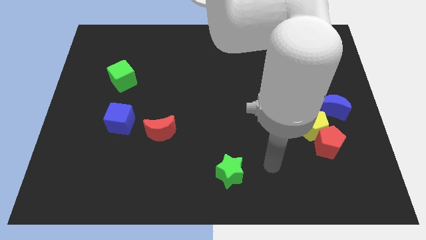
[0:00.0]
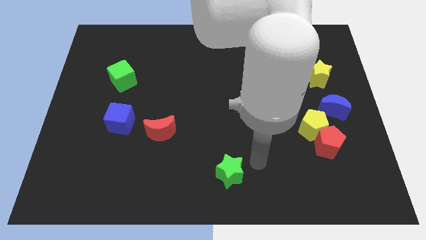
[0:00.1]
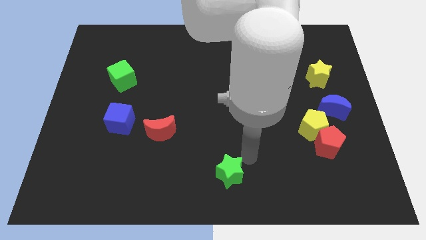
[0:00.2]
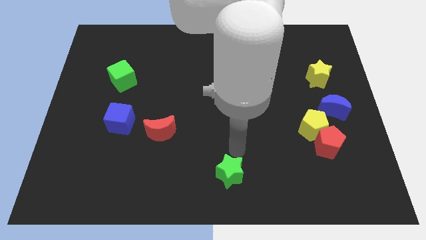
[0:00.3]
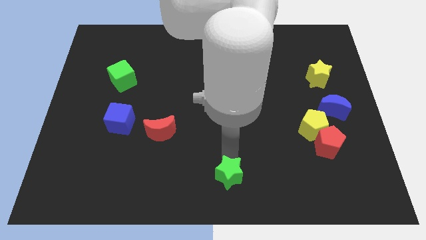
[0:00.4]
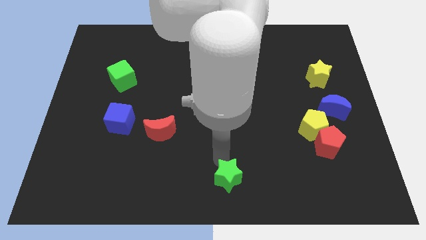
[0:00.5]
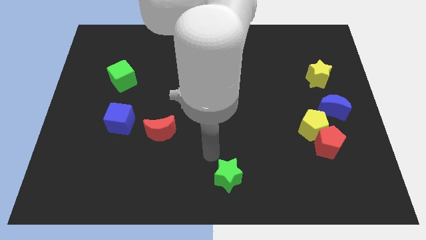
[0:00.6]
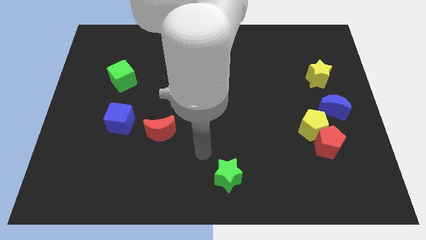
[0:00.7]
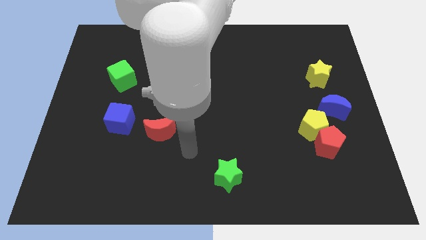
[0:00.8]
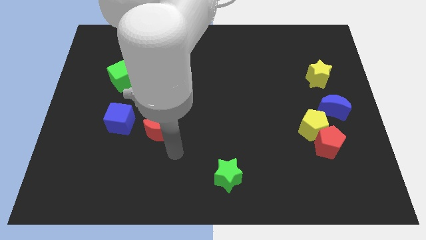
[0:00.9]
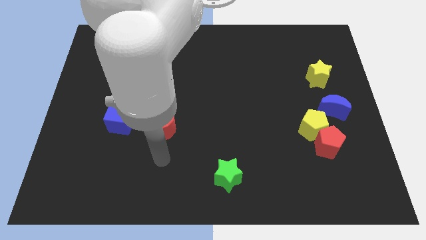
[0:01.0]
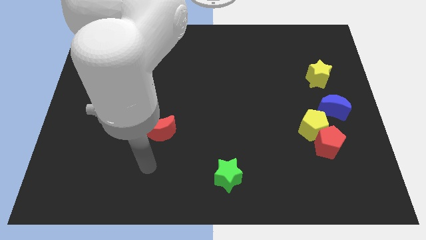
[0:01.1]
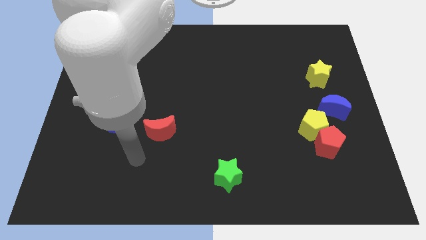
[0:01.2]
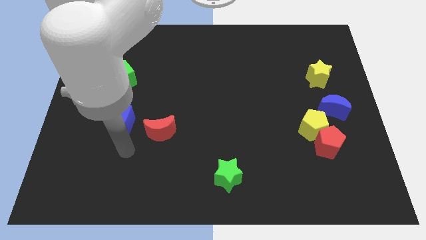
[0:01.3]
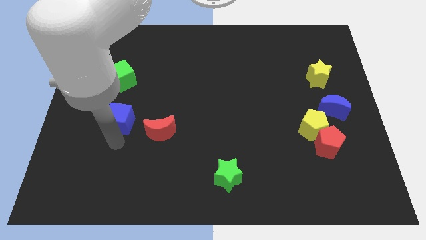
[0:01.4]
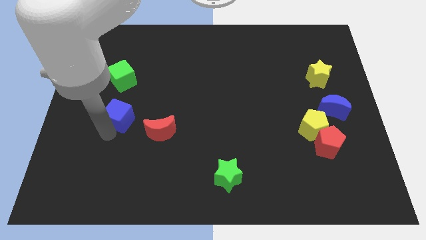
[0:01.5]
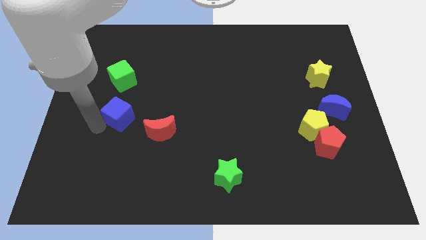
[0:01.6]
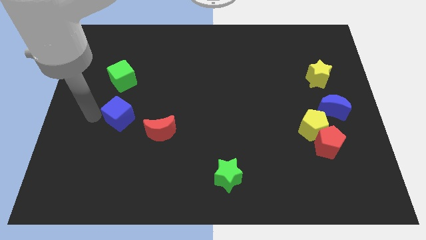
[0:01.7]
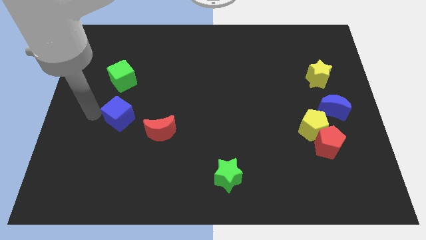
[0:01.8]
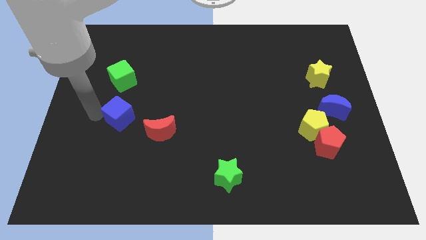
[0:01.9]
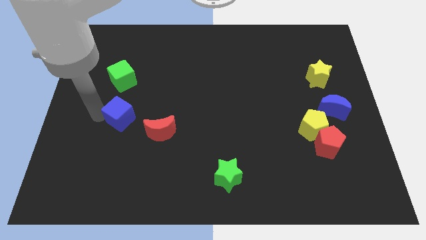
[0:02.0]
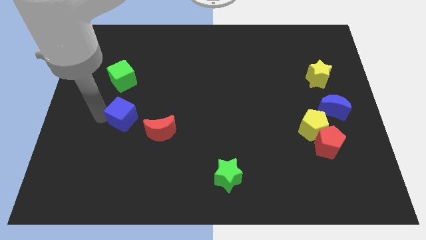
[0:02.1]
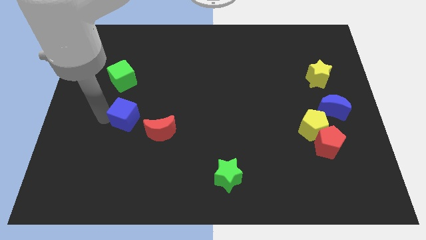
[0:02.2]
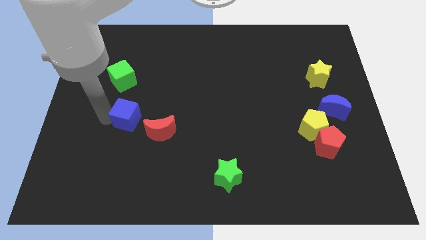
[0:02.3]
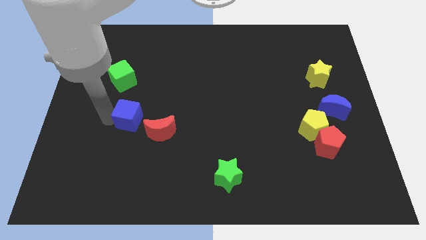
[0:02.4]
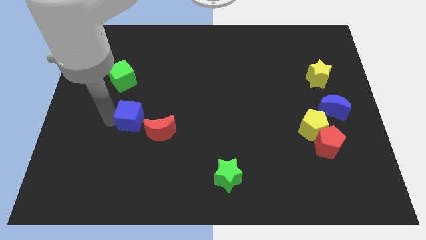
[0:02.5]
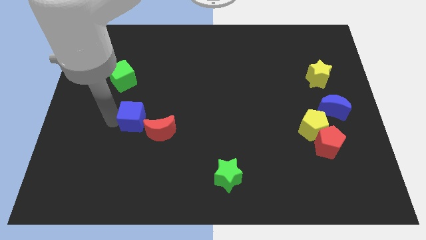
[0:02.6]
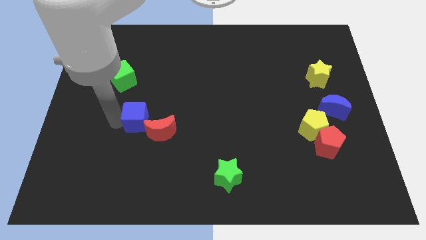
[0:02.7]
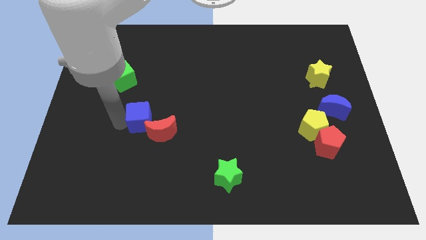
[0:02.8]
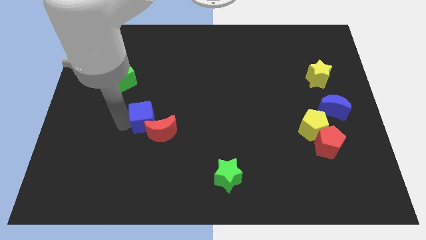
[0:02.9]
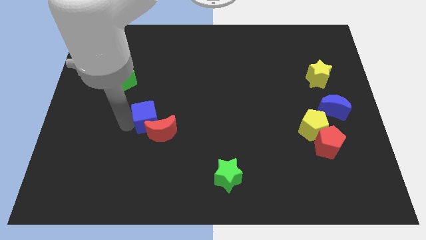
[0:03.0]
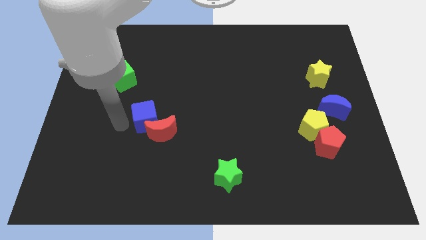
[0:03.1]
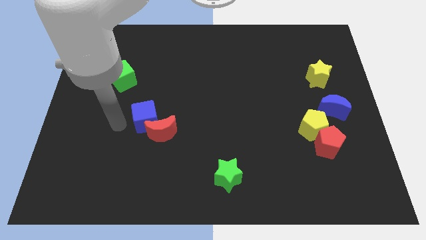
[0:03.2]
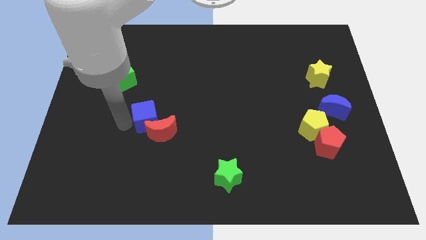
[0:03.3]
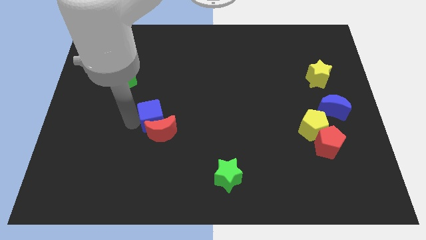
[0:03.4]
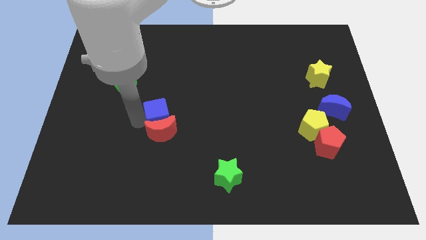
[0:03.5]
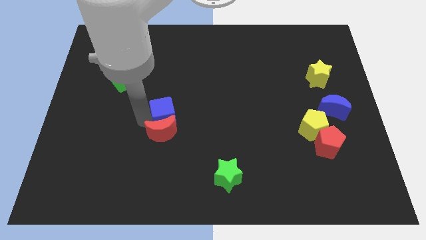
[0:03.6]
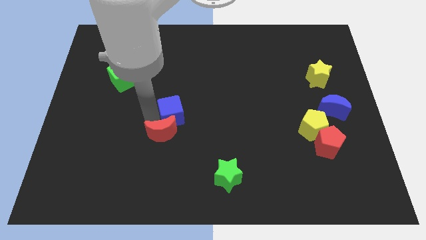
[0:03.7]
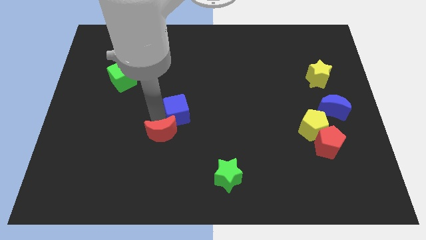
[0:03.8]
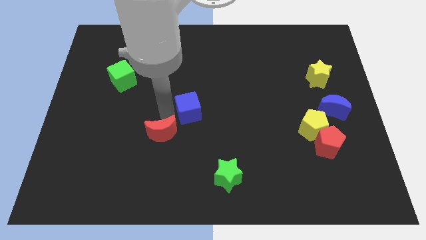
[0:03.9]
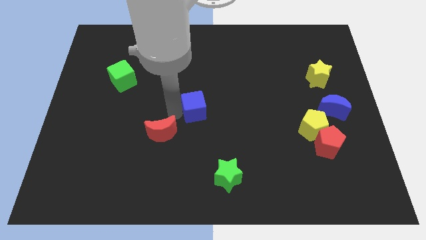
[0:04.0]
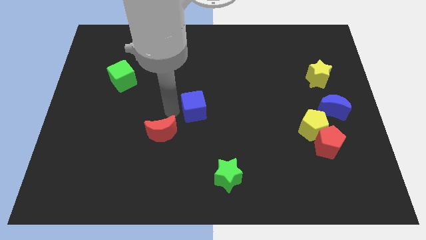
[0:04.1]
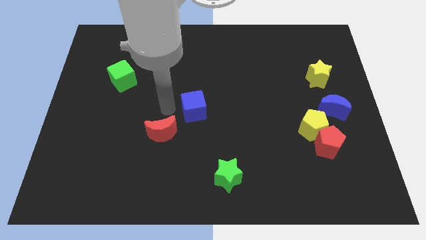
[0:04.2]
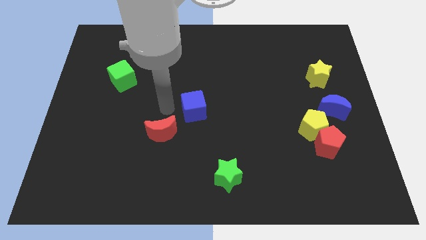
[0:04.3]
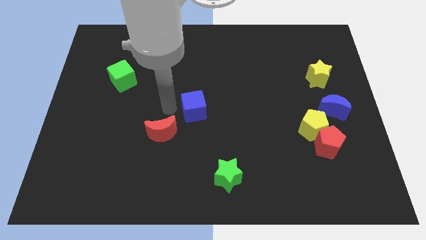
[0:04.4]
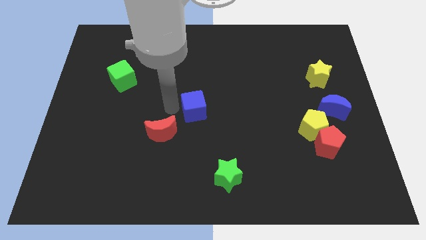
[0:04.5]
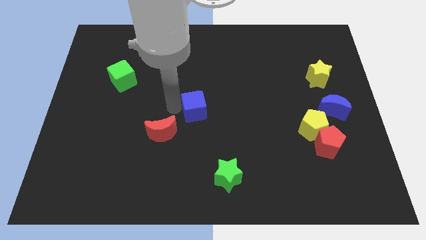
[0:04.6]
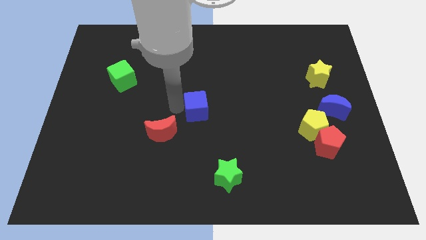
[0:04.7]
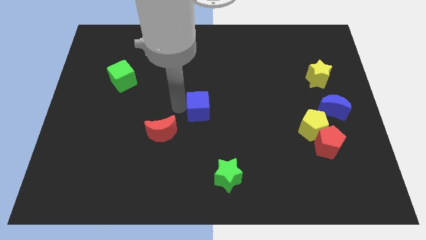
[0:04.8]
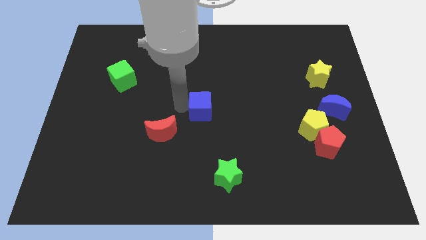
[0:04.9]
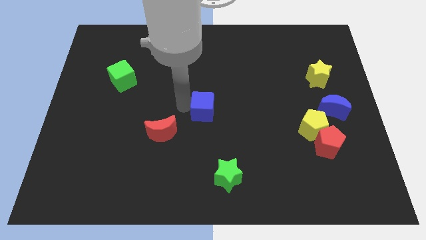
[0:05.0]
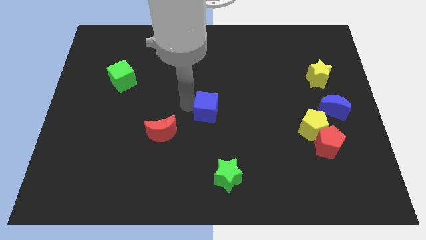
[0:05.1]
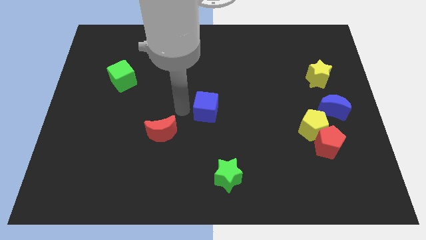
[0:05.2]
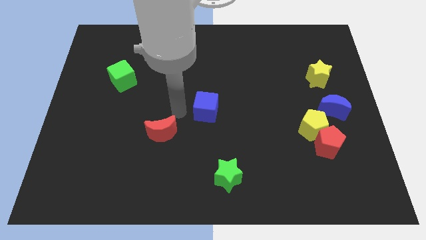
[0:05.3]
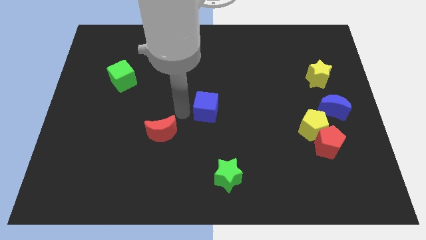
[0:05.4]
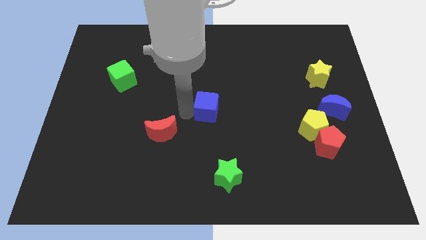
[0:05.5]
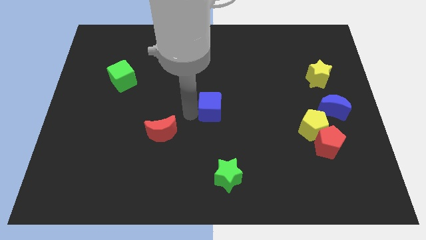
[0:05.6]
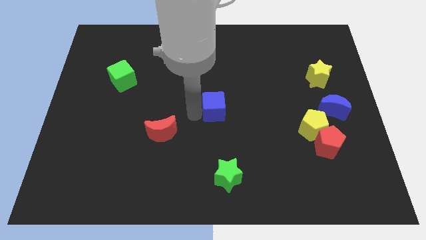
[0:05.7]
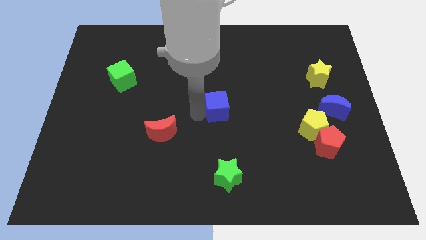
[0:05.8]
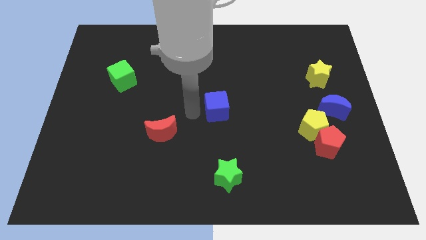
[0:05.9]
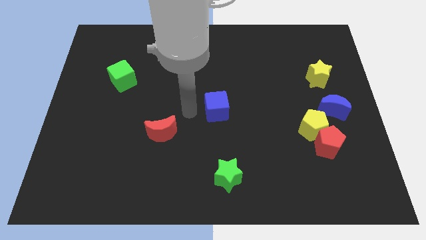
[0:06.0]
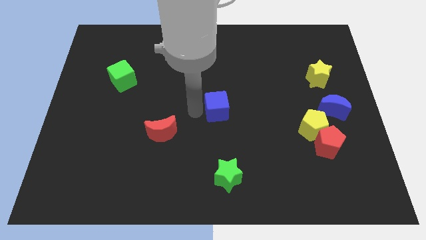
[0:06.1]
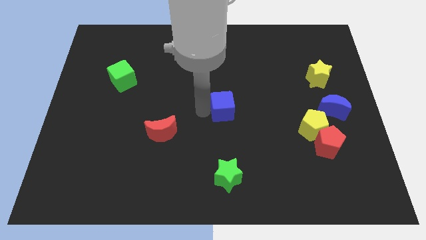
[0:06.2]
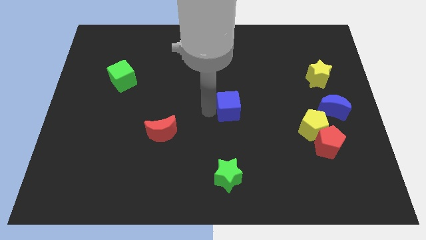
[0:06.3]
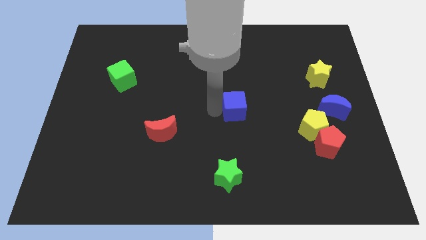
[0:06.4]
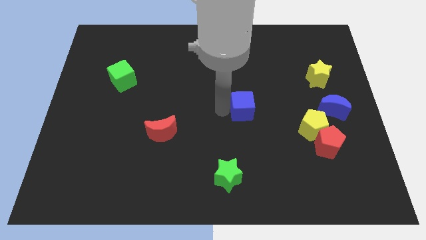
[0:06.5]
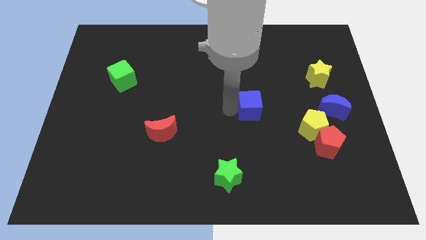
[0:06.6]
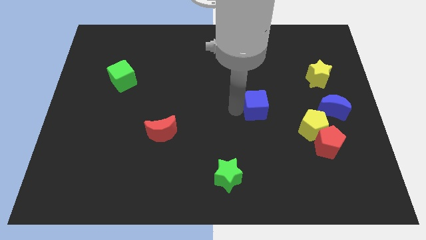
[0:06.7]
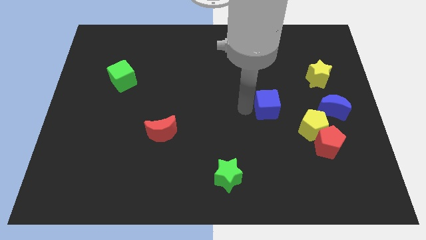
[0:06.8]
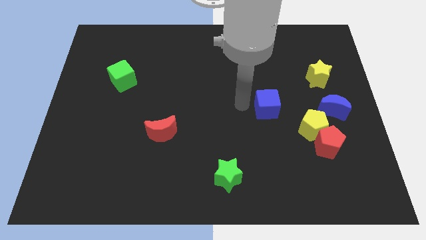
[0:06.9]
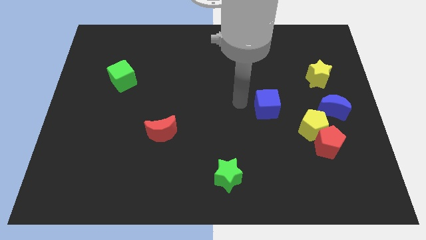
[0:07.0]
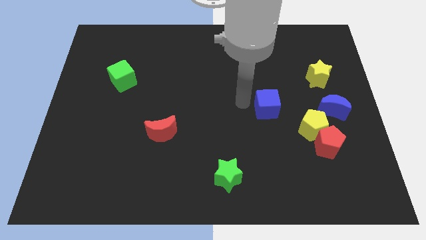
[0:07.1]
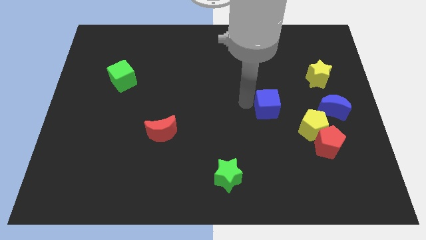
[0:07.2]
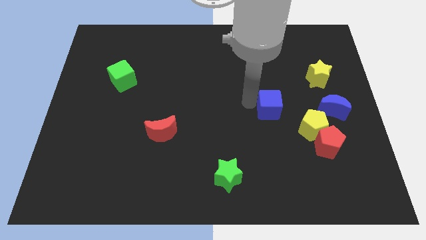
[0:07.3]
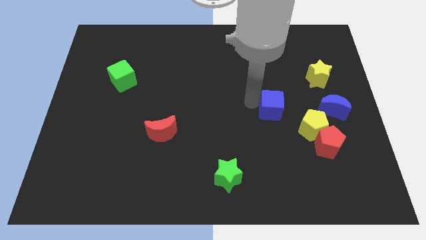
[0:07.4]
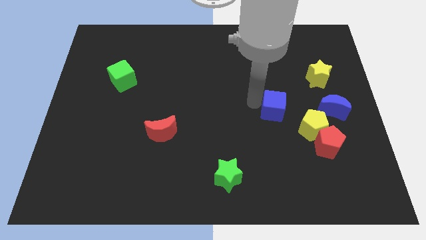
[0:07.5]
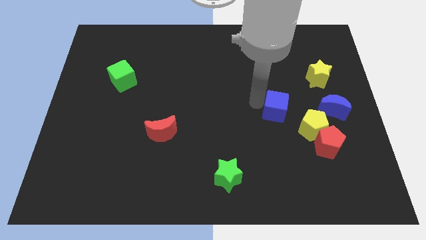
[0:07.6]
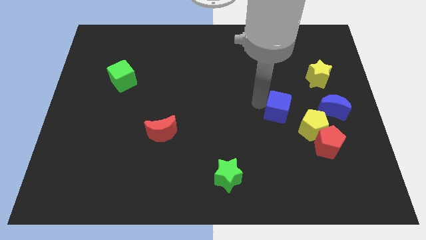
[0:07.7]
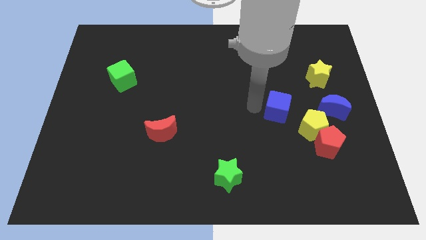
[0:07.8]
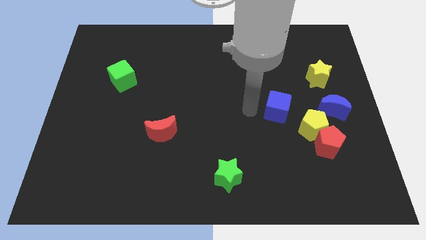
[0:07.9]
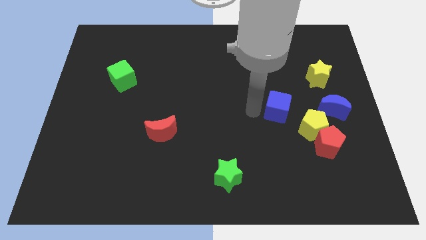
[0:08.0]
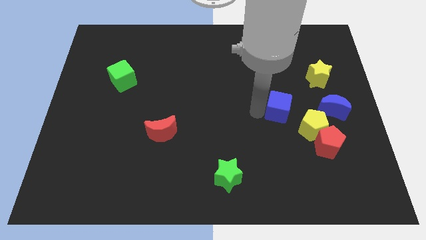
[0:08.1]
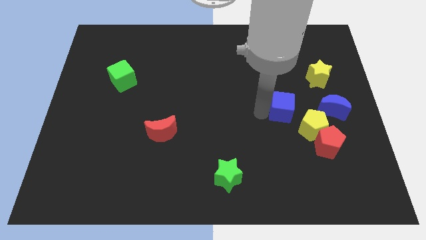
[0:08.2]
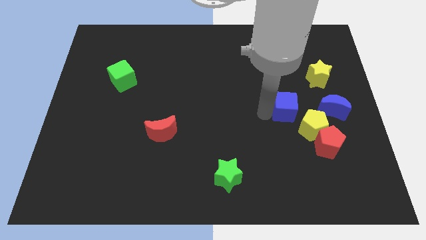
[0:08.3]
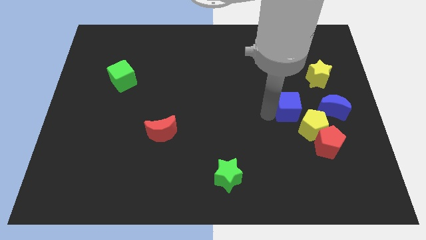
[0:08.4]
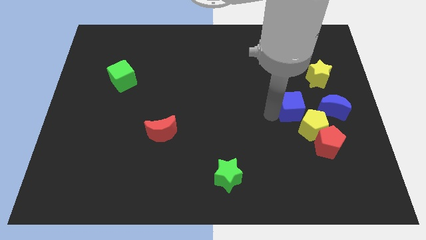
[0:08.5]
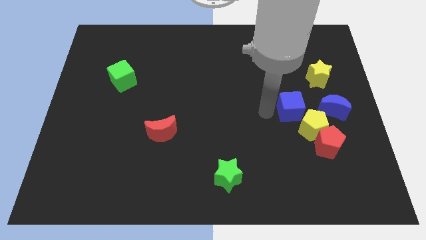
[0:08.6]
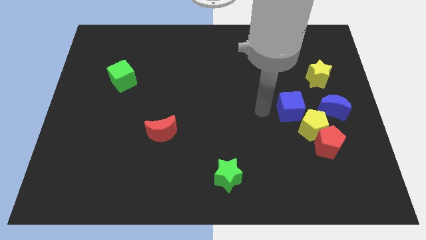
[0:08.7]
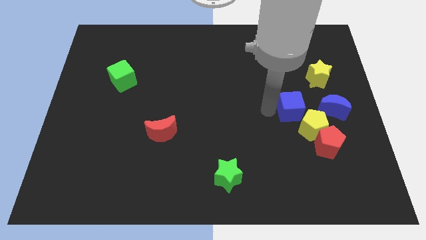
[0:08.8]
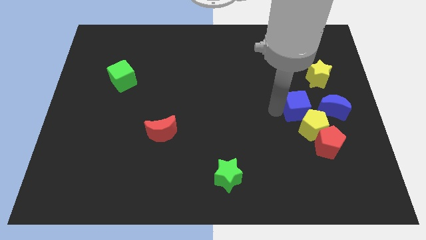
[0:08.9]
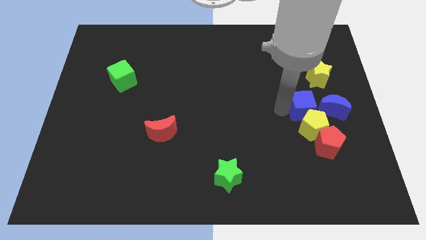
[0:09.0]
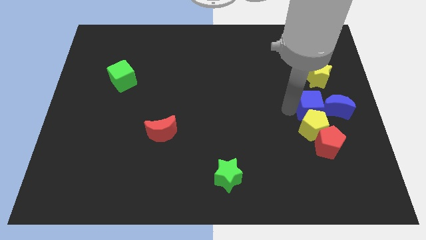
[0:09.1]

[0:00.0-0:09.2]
move the blue cube close to the blue moon
